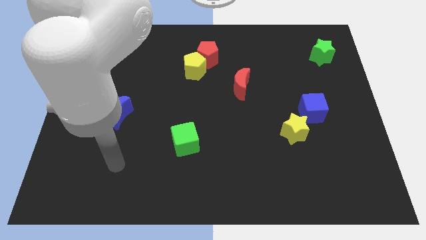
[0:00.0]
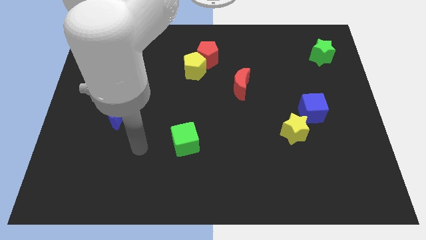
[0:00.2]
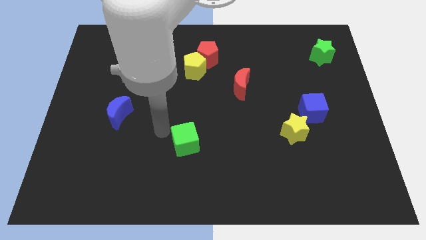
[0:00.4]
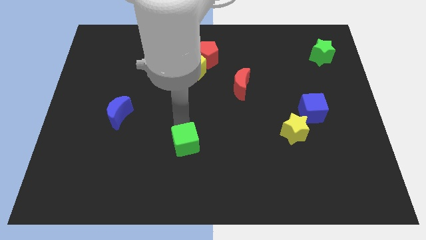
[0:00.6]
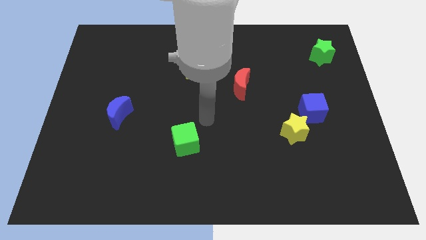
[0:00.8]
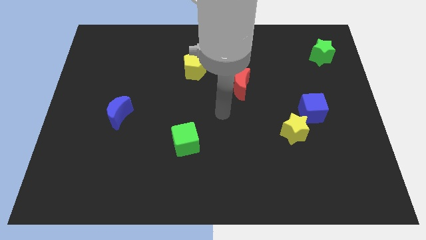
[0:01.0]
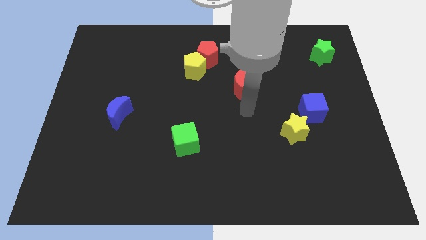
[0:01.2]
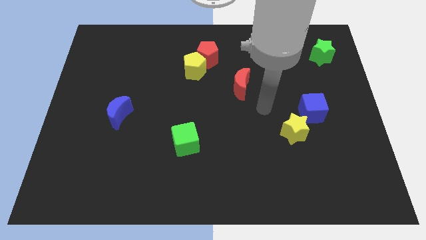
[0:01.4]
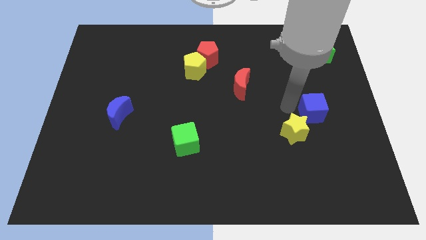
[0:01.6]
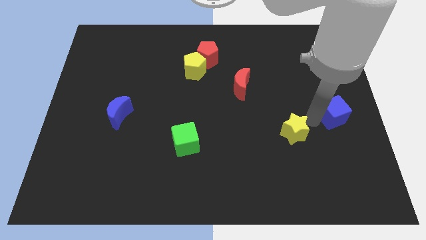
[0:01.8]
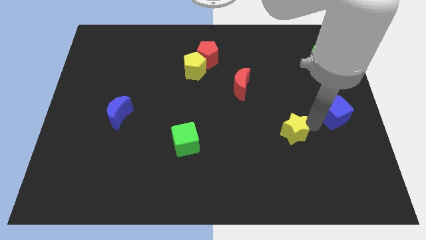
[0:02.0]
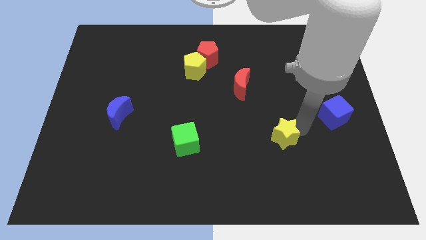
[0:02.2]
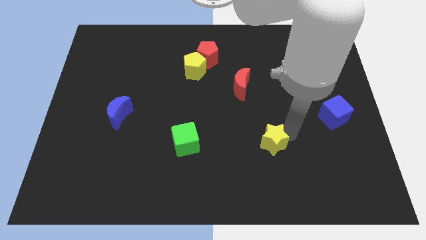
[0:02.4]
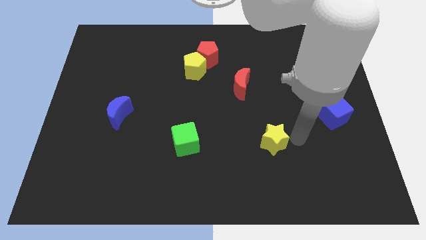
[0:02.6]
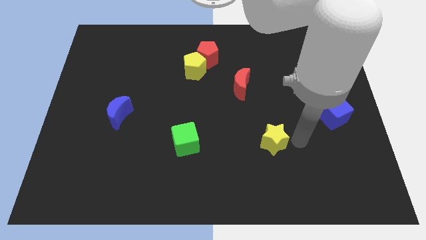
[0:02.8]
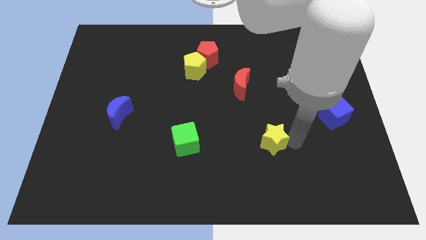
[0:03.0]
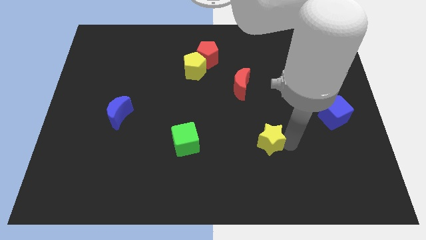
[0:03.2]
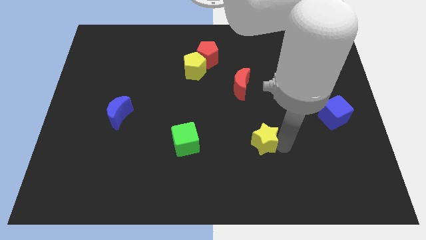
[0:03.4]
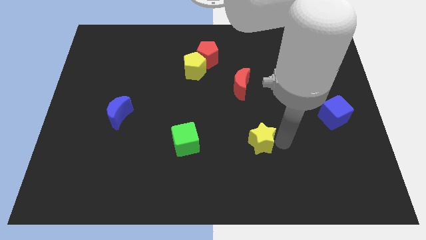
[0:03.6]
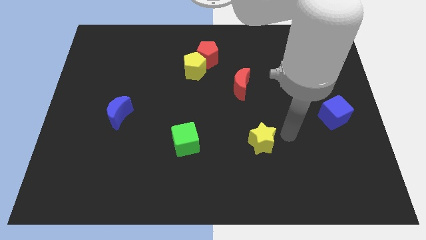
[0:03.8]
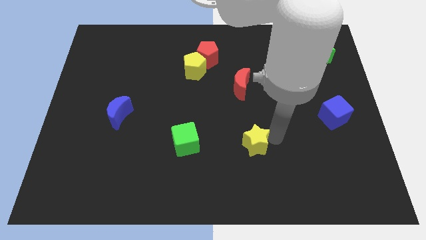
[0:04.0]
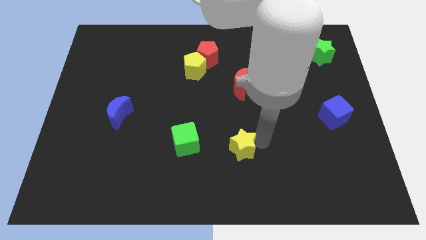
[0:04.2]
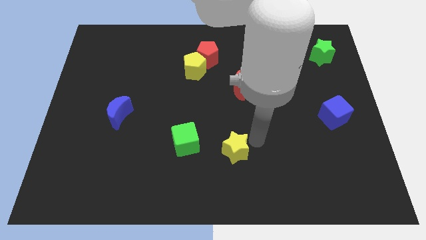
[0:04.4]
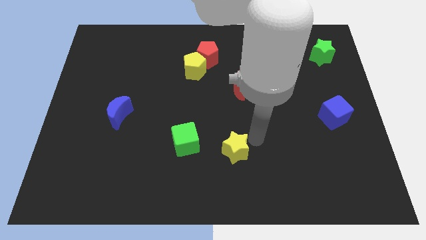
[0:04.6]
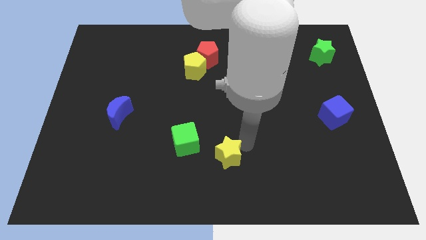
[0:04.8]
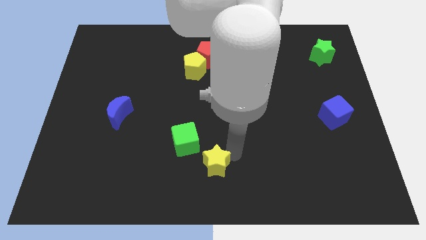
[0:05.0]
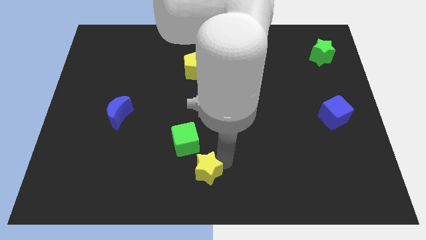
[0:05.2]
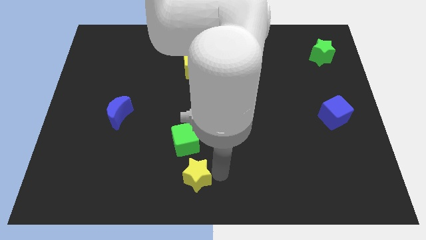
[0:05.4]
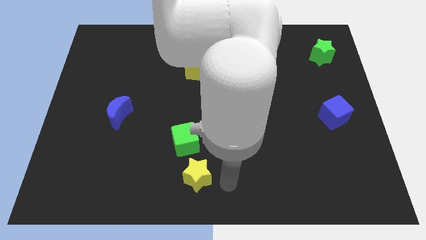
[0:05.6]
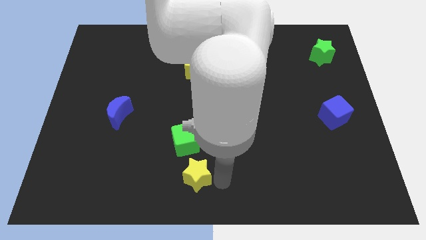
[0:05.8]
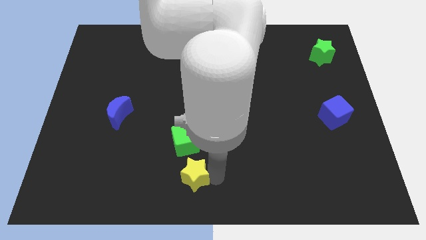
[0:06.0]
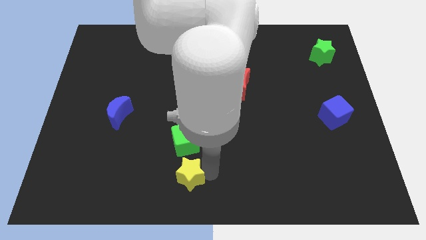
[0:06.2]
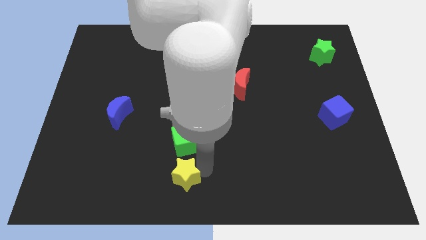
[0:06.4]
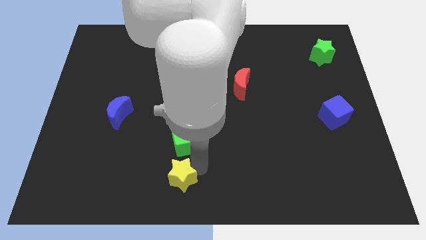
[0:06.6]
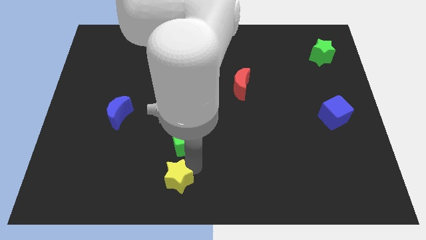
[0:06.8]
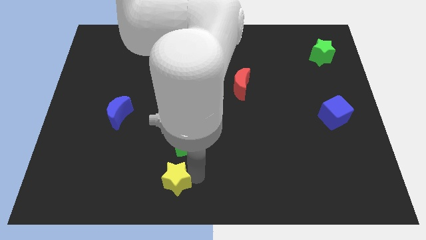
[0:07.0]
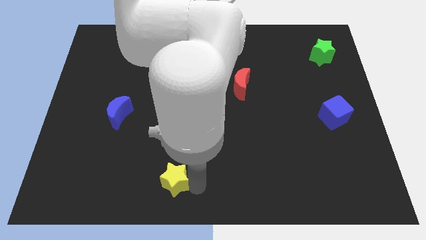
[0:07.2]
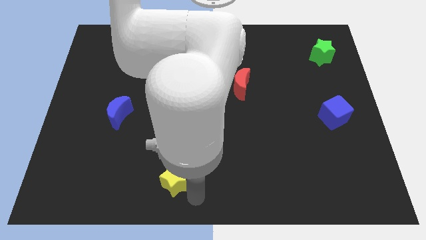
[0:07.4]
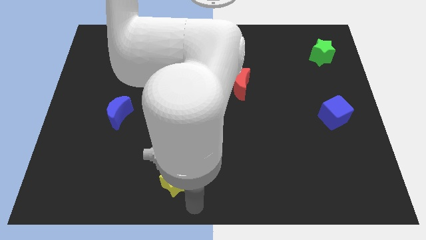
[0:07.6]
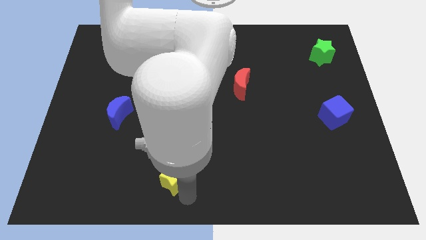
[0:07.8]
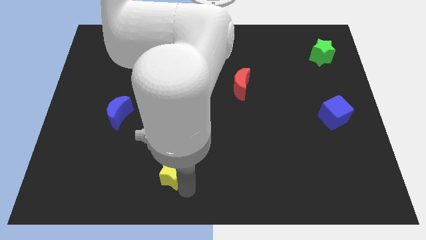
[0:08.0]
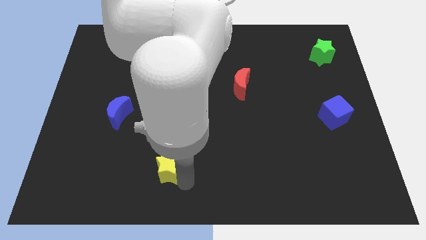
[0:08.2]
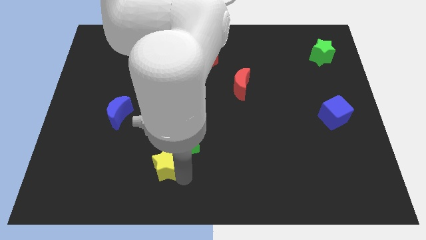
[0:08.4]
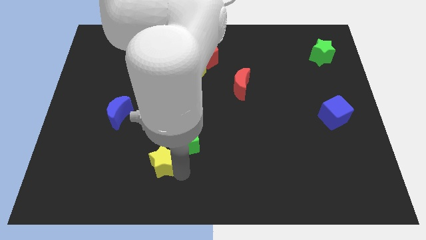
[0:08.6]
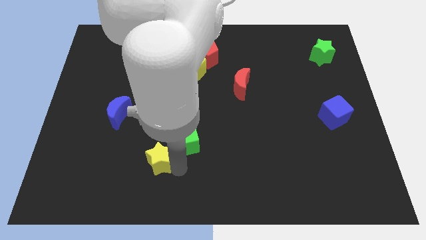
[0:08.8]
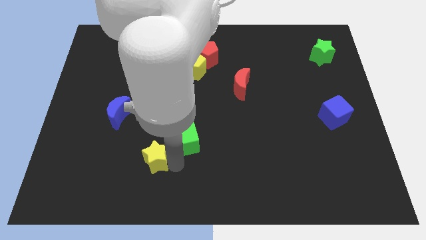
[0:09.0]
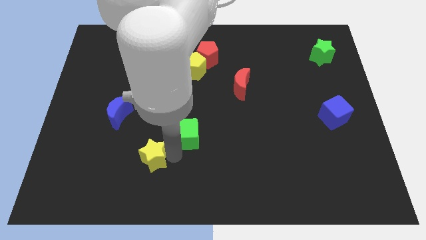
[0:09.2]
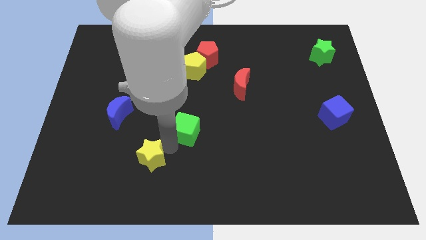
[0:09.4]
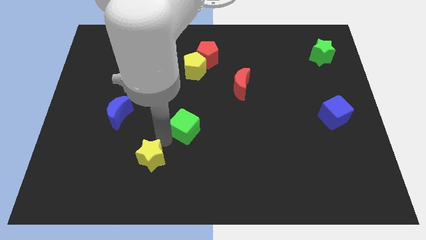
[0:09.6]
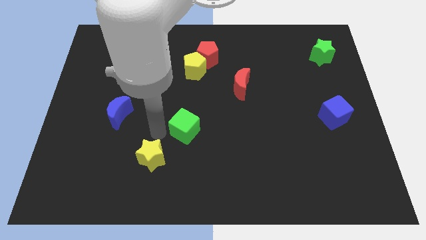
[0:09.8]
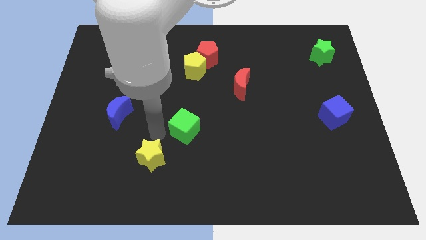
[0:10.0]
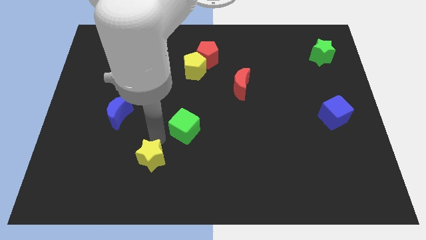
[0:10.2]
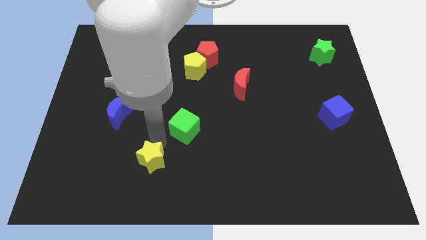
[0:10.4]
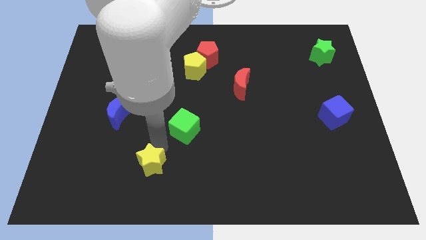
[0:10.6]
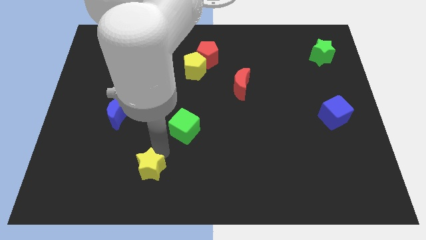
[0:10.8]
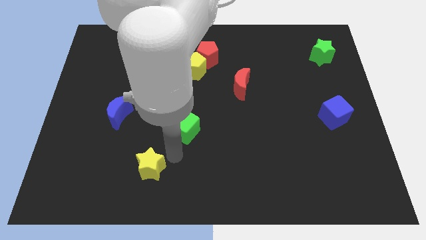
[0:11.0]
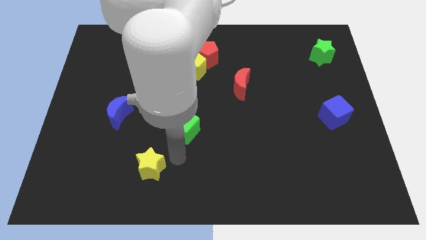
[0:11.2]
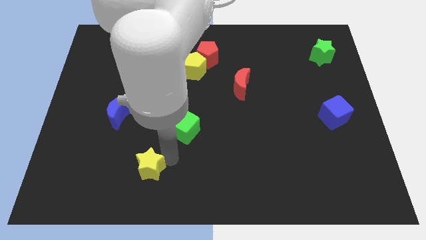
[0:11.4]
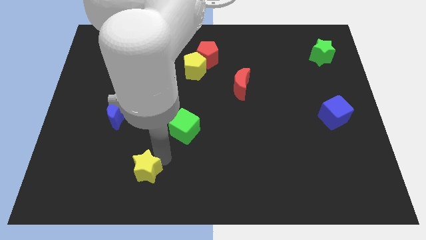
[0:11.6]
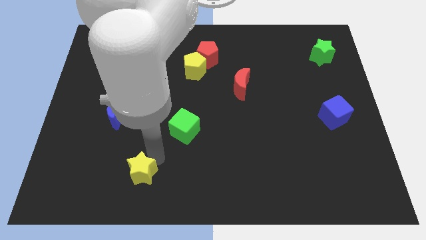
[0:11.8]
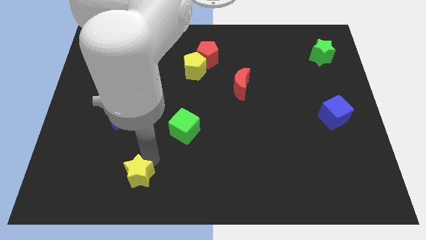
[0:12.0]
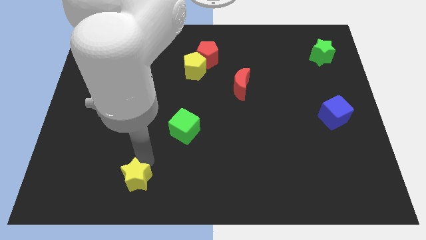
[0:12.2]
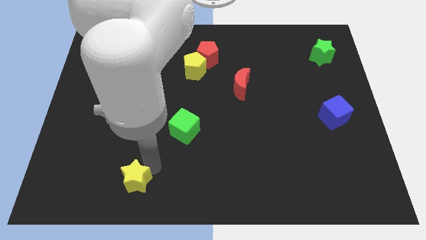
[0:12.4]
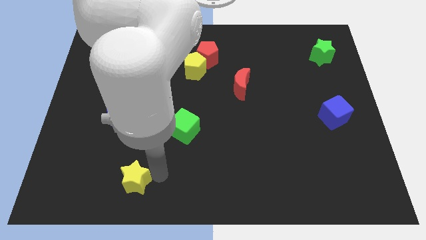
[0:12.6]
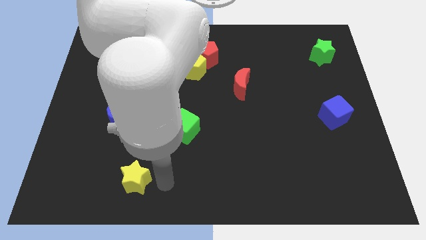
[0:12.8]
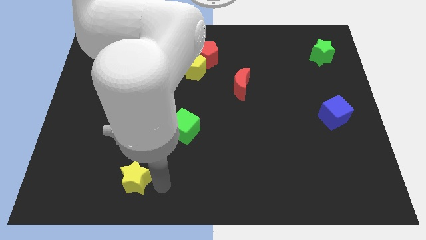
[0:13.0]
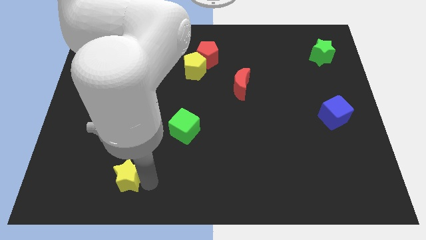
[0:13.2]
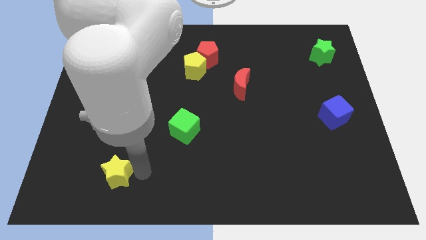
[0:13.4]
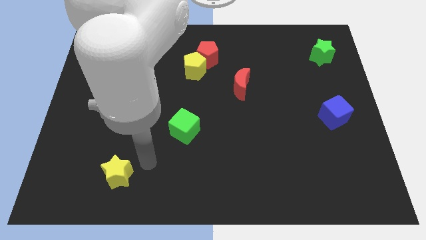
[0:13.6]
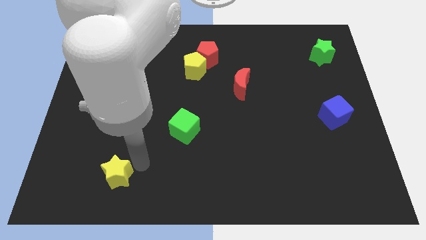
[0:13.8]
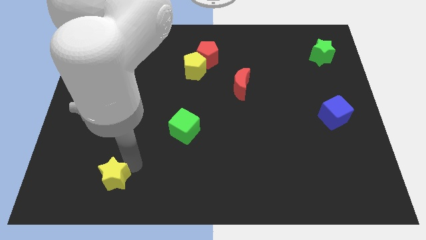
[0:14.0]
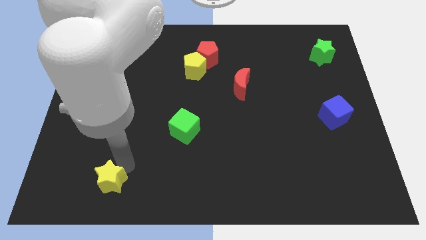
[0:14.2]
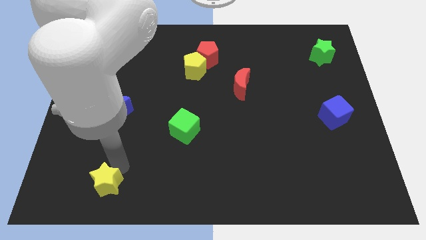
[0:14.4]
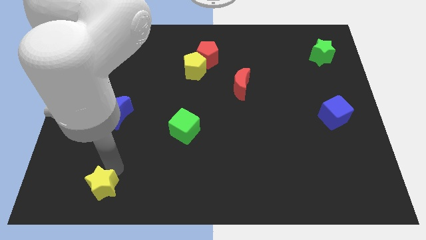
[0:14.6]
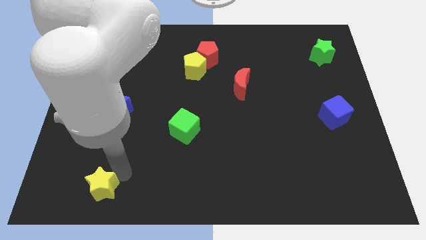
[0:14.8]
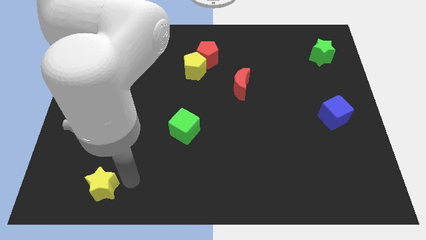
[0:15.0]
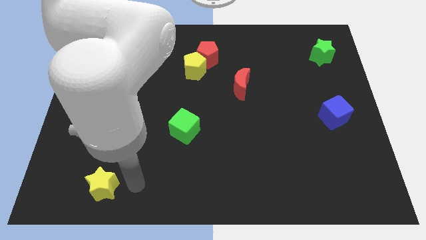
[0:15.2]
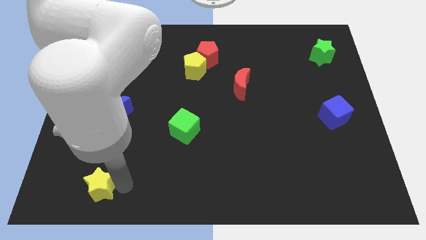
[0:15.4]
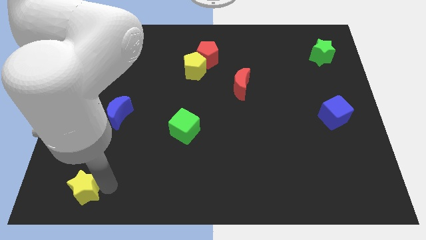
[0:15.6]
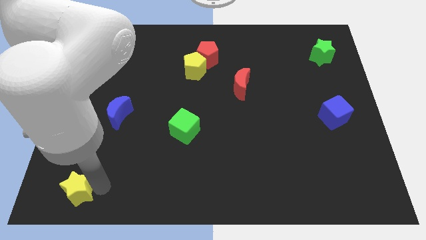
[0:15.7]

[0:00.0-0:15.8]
push the yellow star to the bottom left
